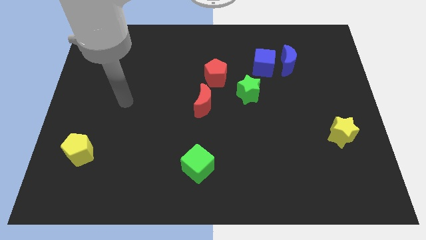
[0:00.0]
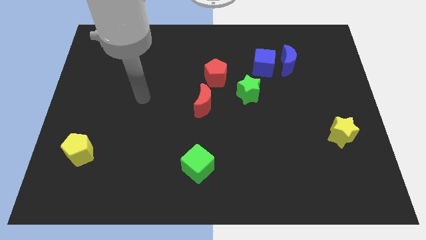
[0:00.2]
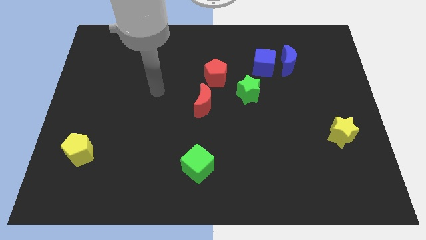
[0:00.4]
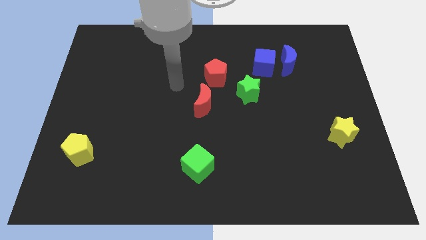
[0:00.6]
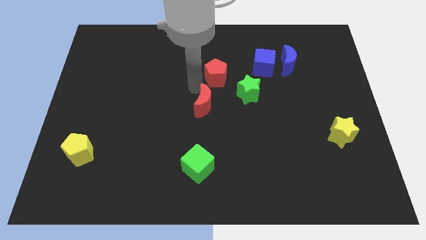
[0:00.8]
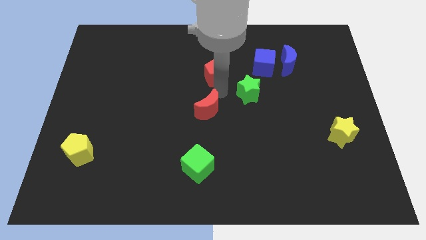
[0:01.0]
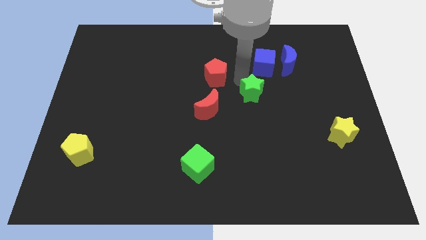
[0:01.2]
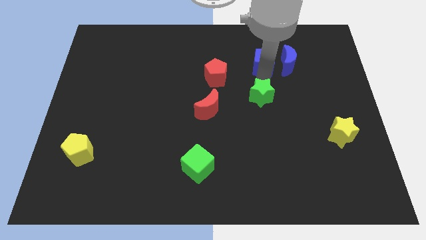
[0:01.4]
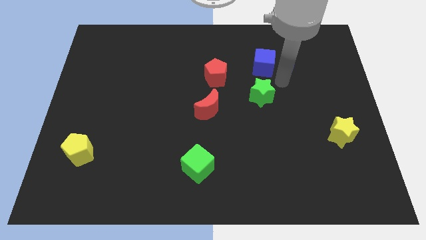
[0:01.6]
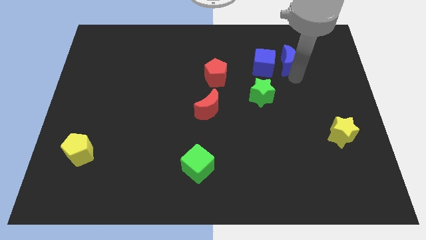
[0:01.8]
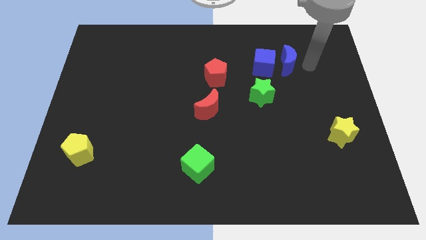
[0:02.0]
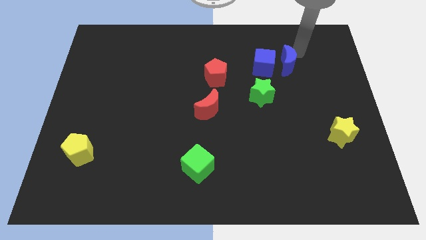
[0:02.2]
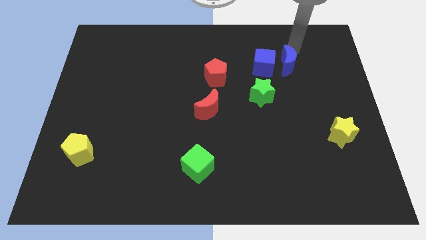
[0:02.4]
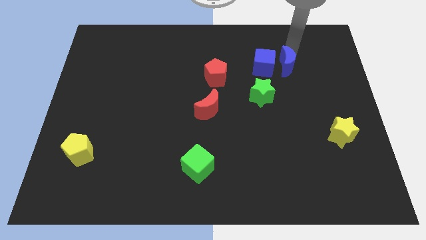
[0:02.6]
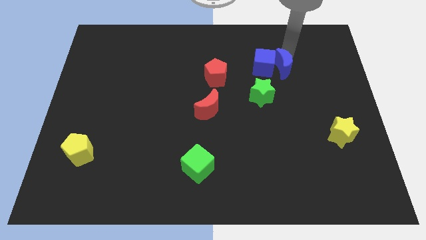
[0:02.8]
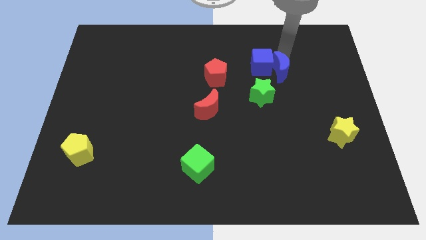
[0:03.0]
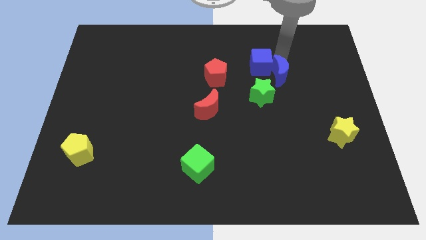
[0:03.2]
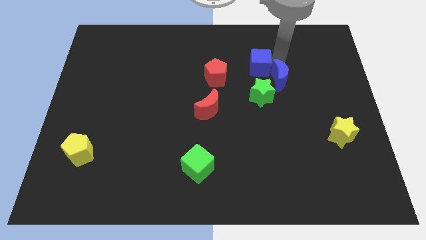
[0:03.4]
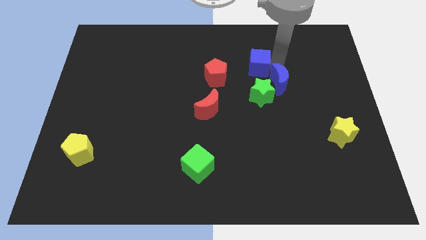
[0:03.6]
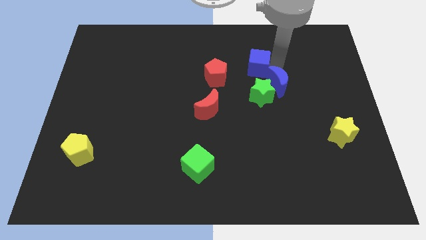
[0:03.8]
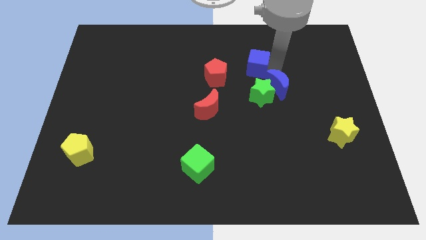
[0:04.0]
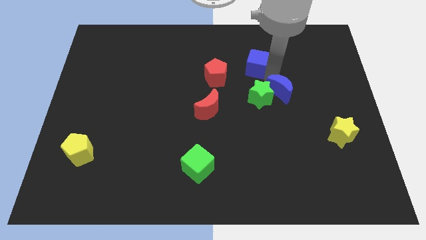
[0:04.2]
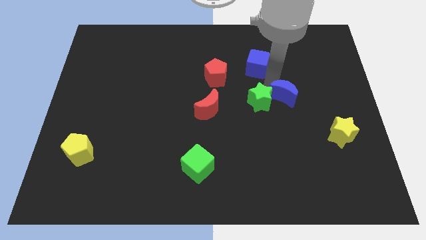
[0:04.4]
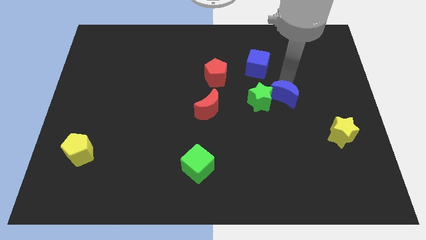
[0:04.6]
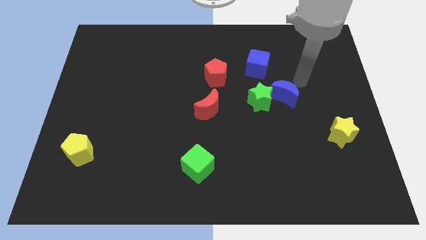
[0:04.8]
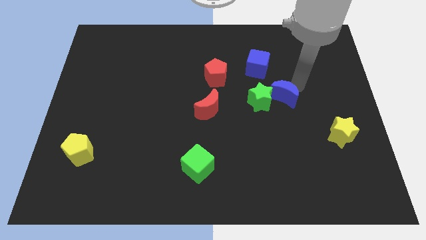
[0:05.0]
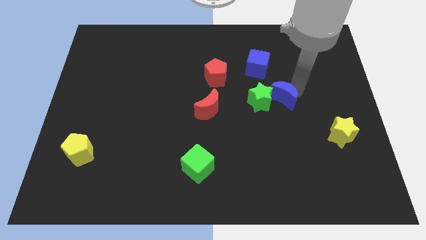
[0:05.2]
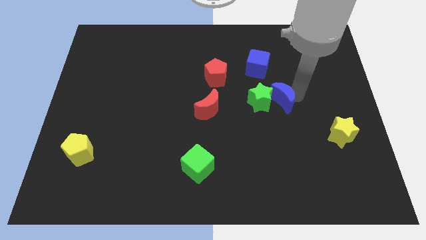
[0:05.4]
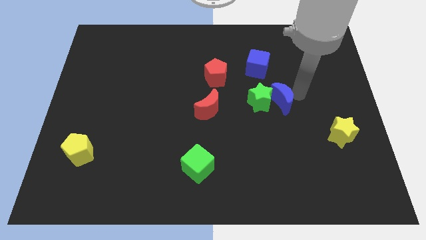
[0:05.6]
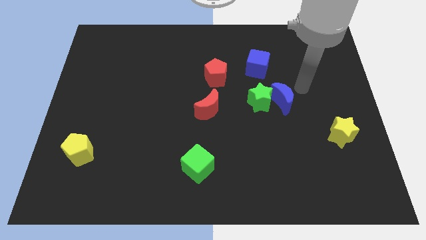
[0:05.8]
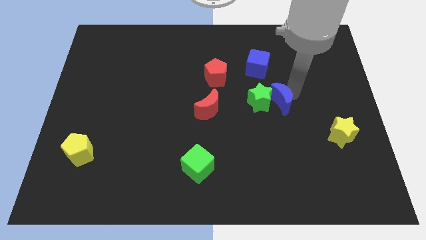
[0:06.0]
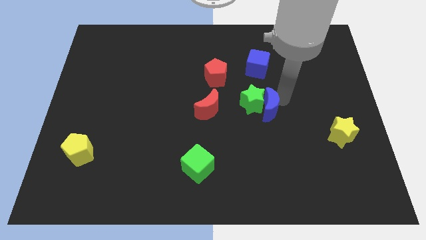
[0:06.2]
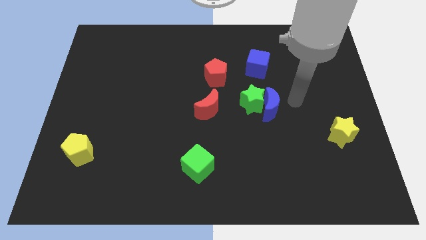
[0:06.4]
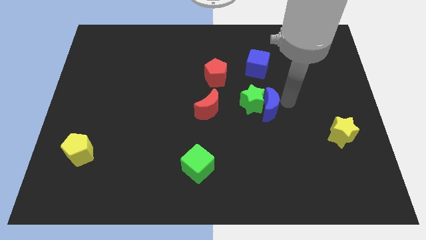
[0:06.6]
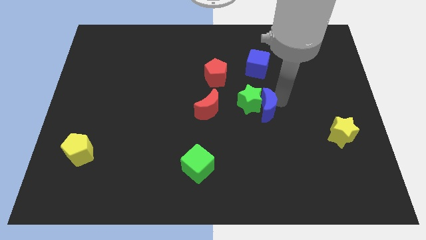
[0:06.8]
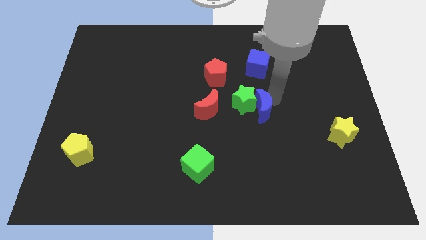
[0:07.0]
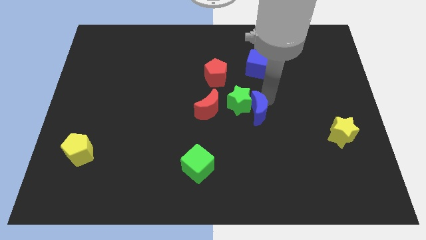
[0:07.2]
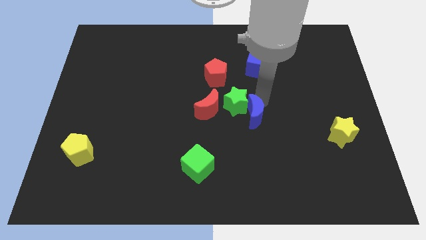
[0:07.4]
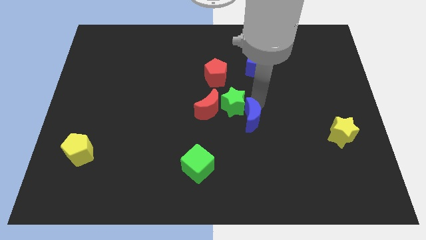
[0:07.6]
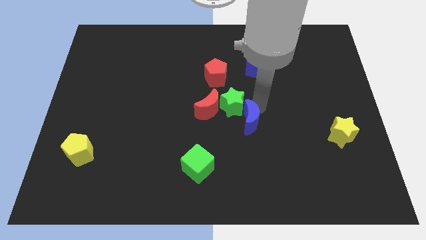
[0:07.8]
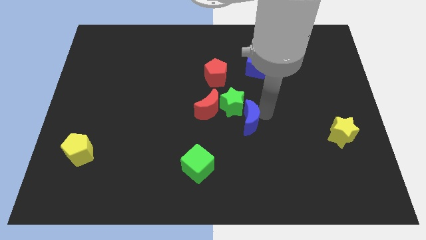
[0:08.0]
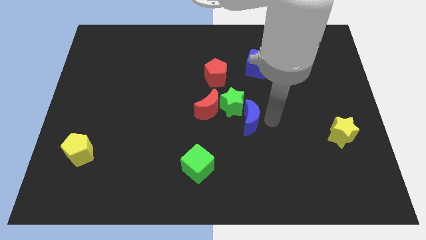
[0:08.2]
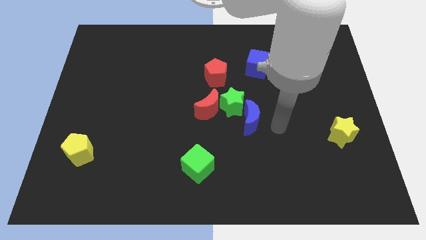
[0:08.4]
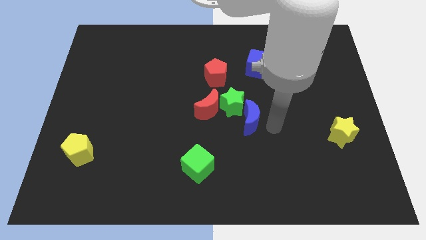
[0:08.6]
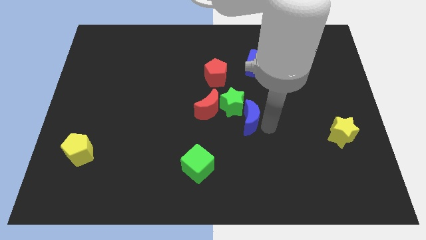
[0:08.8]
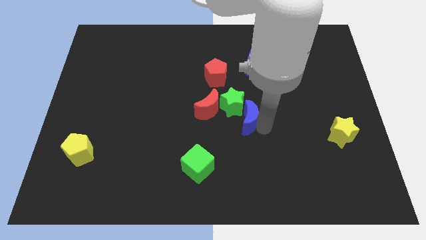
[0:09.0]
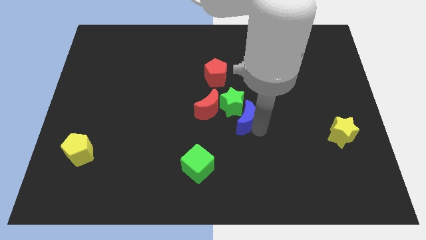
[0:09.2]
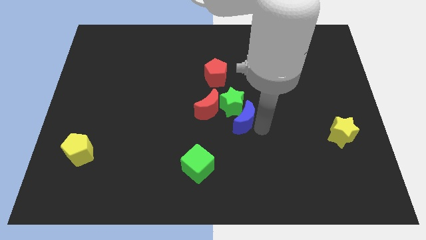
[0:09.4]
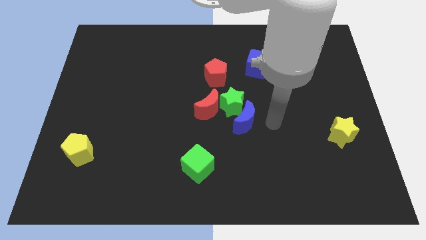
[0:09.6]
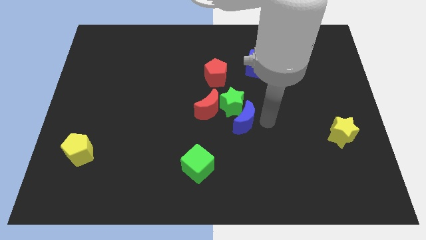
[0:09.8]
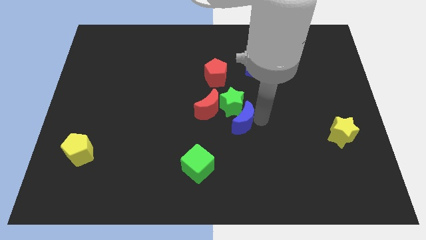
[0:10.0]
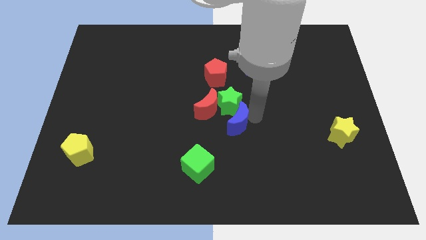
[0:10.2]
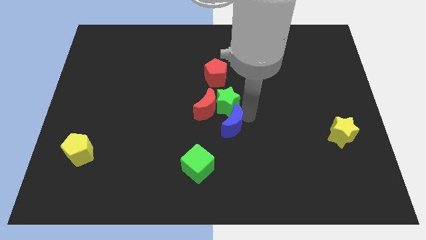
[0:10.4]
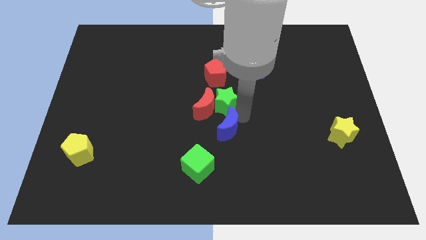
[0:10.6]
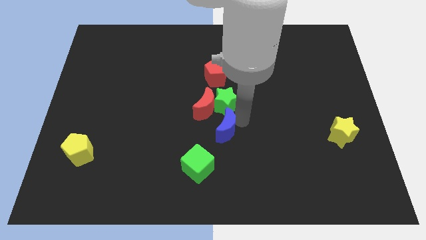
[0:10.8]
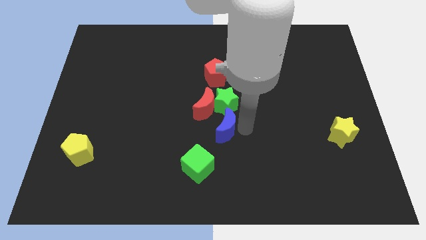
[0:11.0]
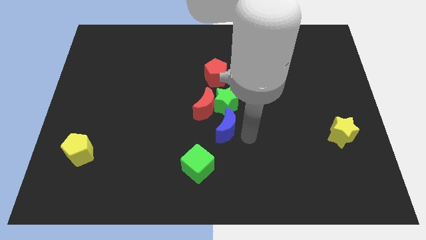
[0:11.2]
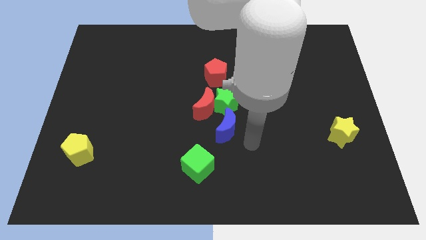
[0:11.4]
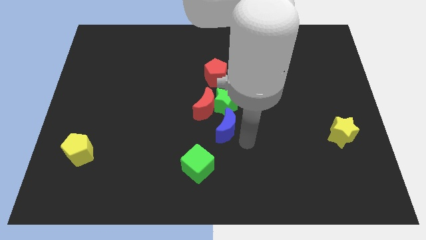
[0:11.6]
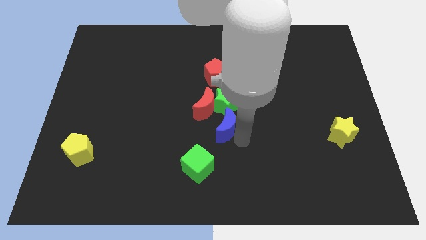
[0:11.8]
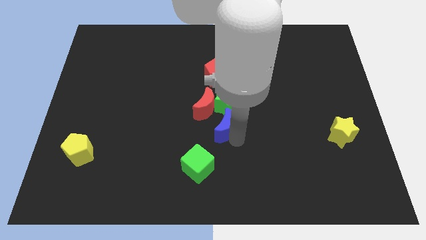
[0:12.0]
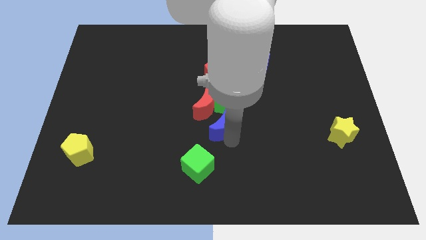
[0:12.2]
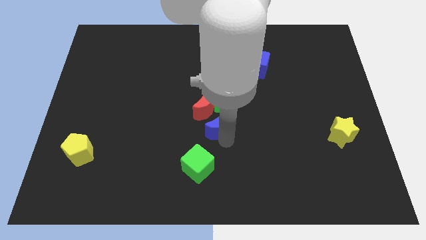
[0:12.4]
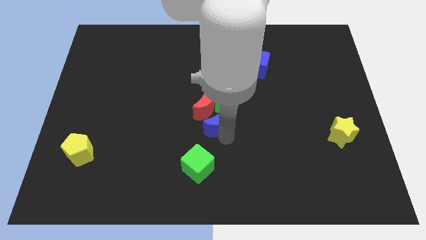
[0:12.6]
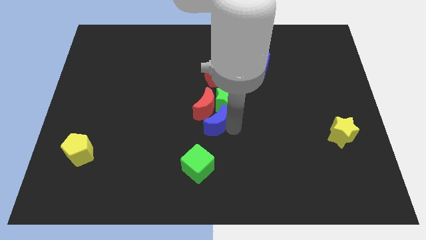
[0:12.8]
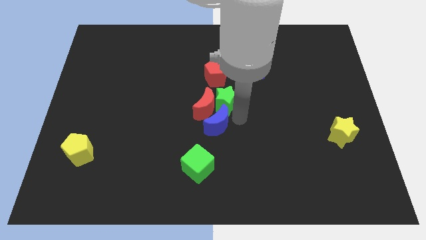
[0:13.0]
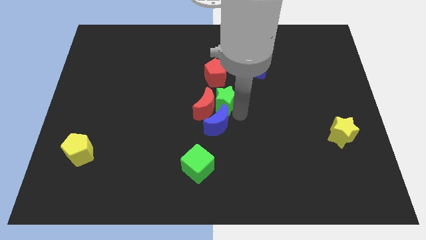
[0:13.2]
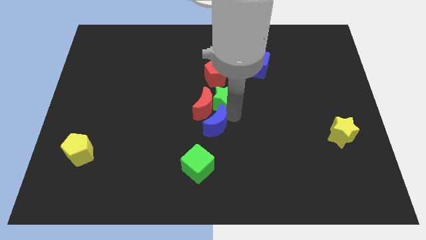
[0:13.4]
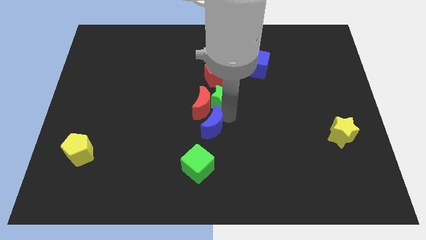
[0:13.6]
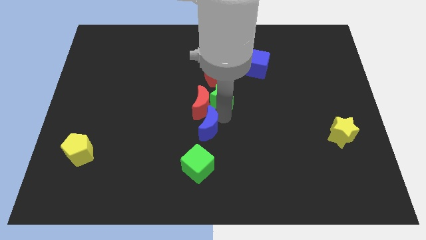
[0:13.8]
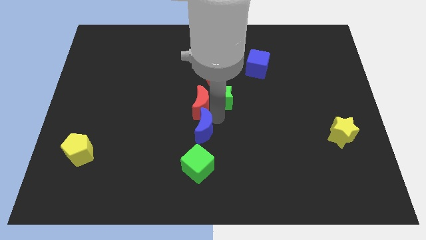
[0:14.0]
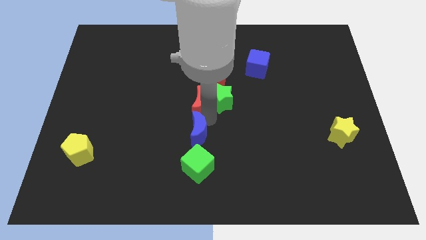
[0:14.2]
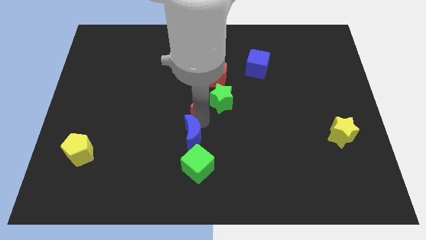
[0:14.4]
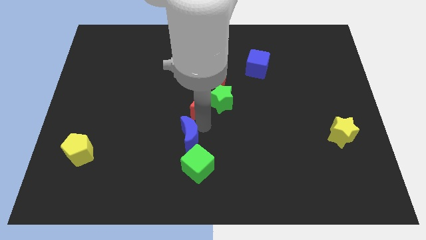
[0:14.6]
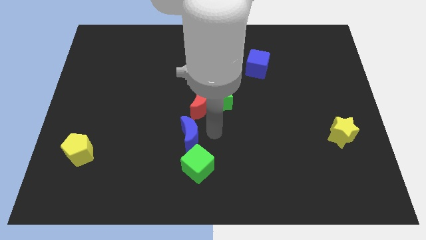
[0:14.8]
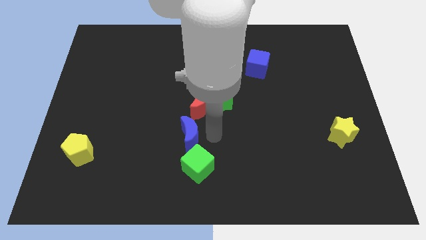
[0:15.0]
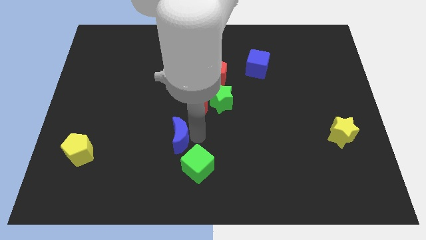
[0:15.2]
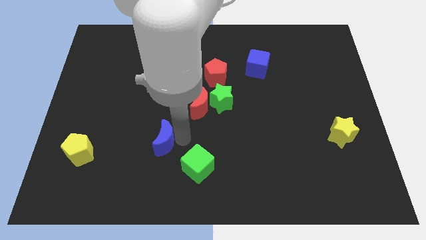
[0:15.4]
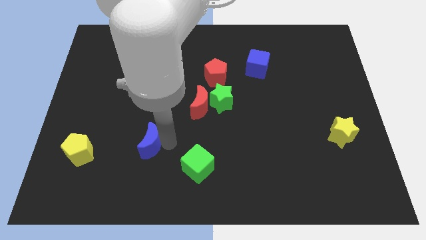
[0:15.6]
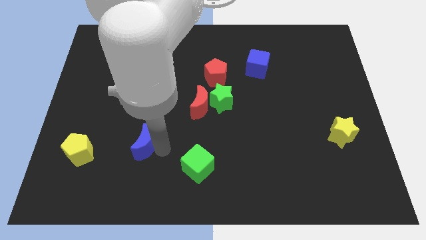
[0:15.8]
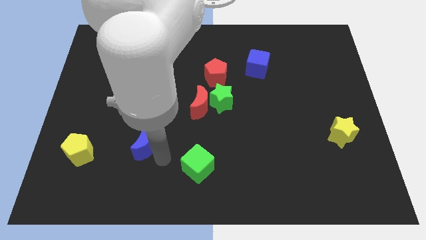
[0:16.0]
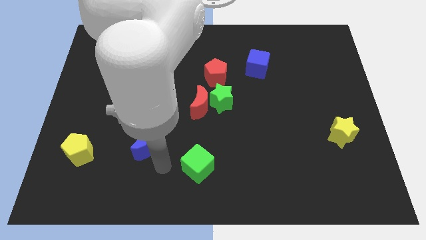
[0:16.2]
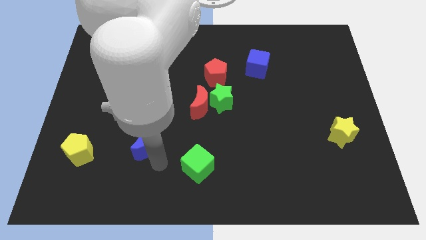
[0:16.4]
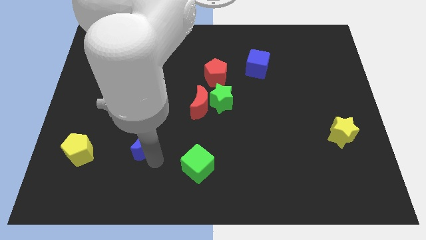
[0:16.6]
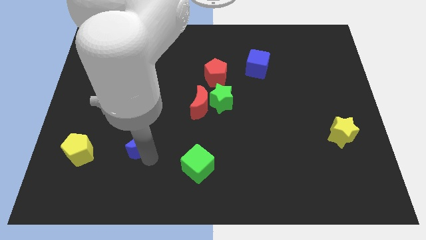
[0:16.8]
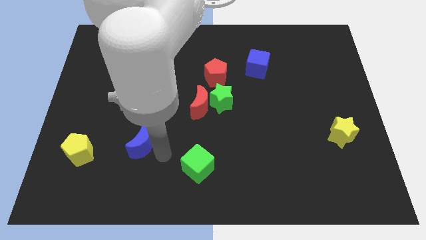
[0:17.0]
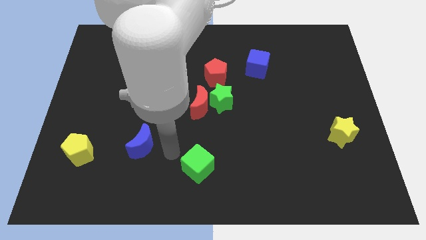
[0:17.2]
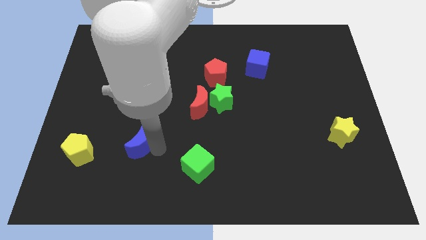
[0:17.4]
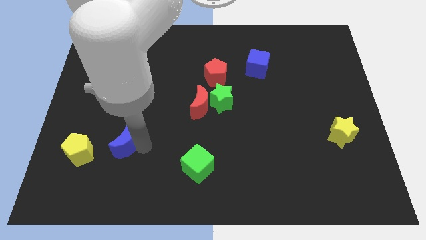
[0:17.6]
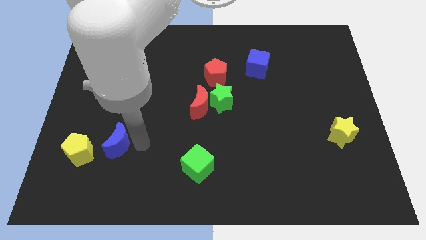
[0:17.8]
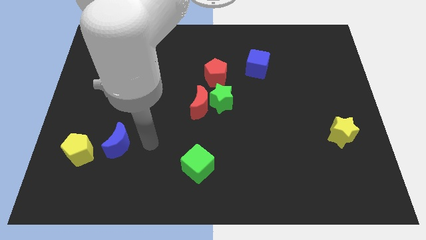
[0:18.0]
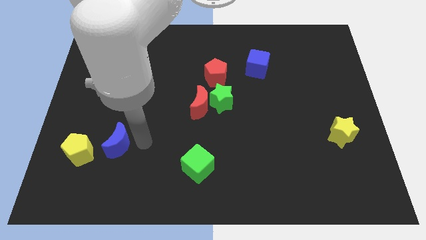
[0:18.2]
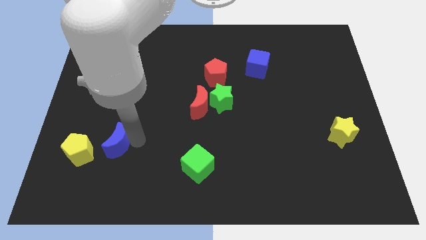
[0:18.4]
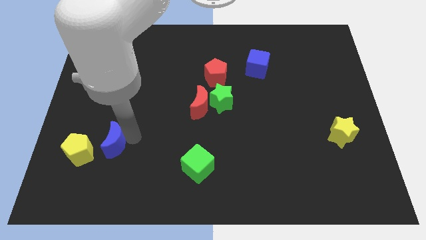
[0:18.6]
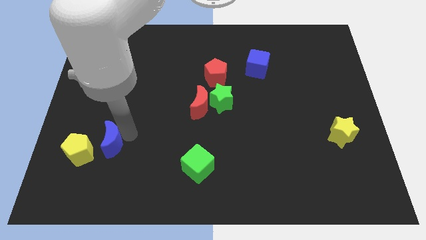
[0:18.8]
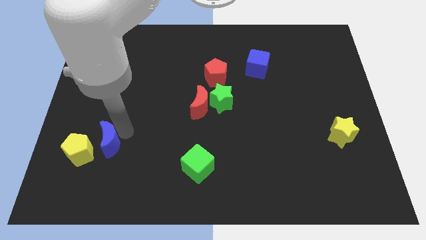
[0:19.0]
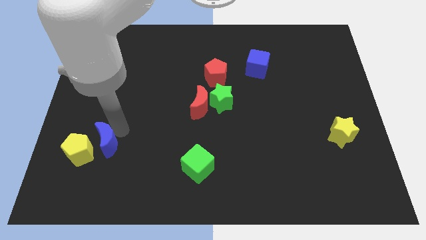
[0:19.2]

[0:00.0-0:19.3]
slide the blue moon to the yellow pentagon
